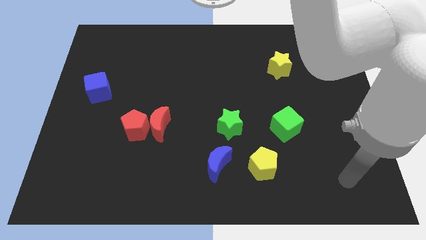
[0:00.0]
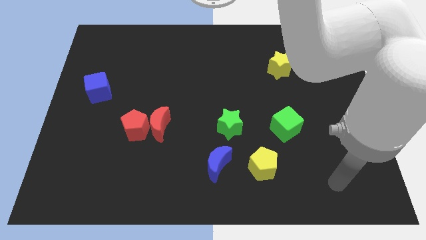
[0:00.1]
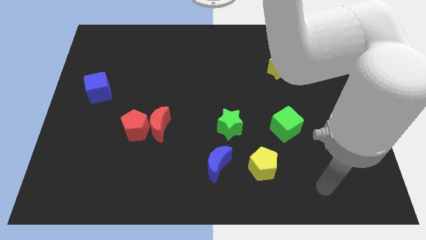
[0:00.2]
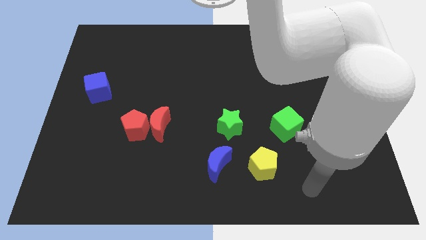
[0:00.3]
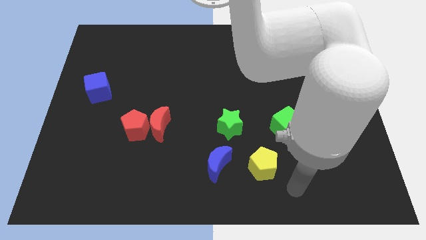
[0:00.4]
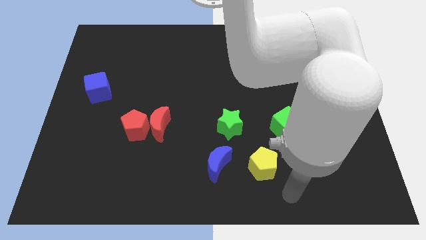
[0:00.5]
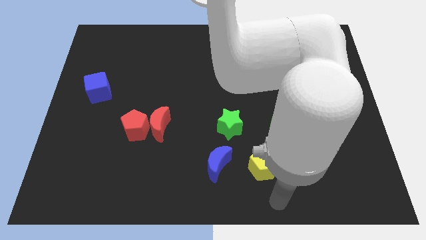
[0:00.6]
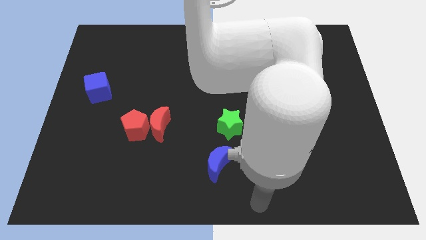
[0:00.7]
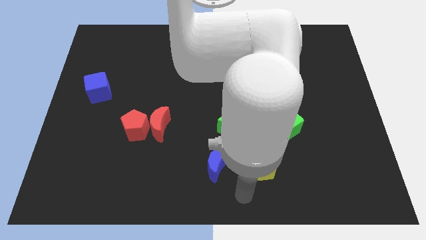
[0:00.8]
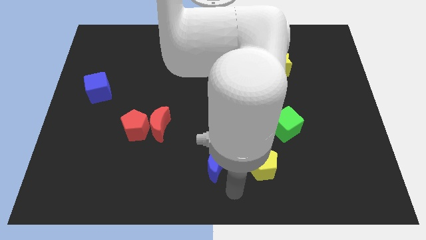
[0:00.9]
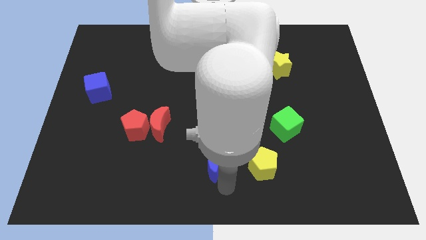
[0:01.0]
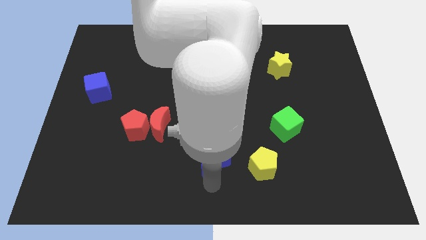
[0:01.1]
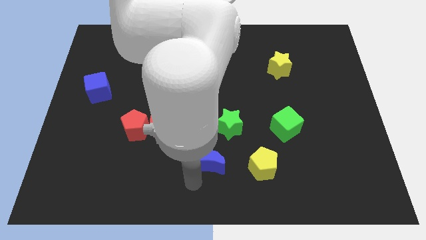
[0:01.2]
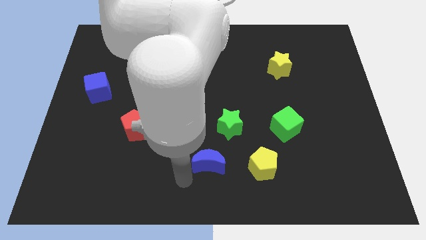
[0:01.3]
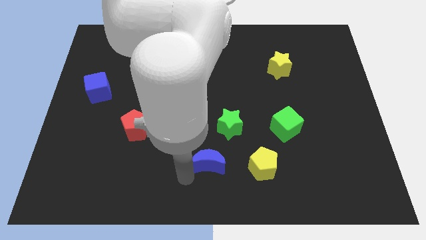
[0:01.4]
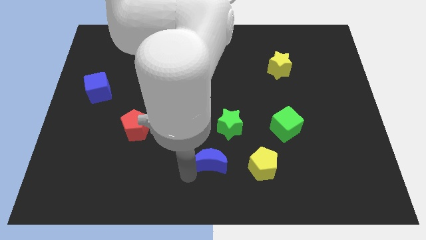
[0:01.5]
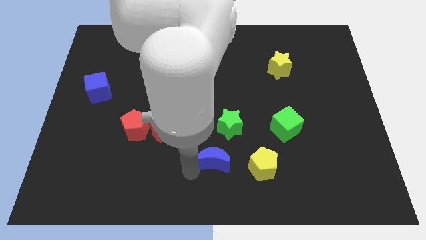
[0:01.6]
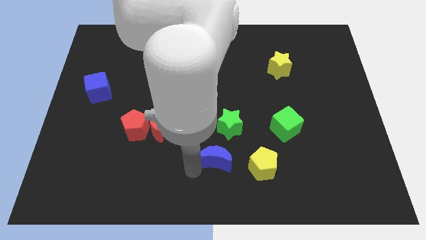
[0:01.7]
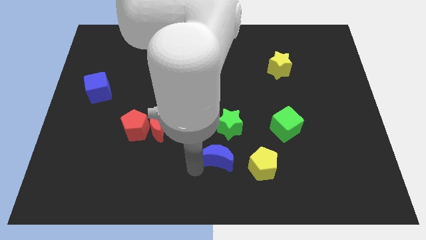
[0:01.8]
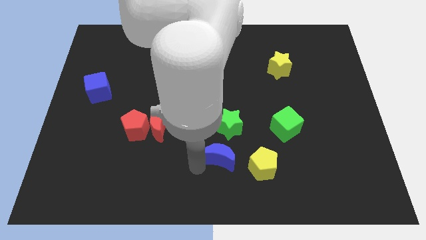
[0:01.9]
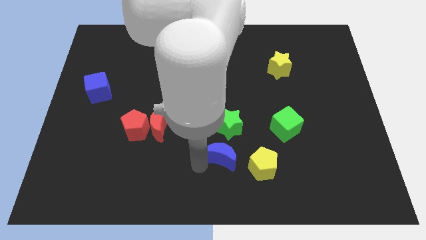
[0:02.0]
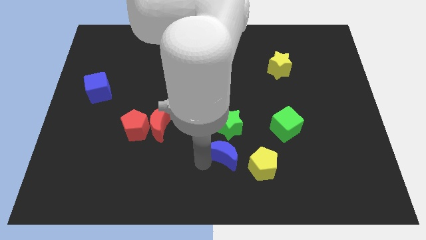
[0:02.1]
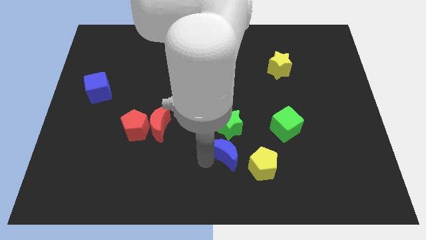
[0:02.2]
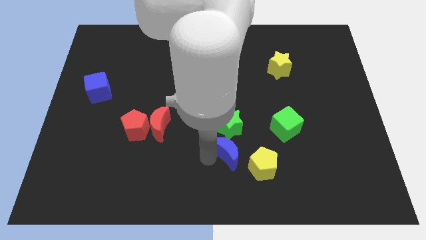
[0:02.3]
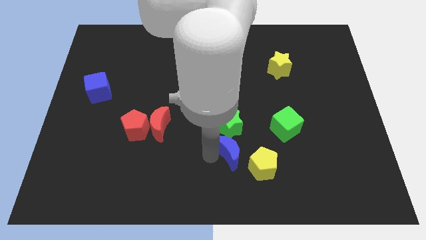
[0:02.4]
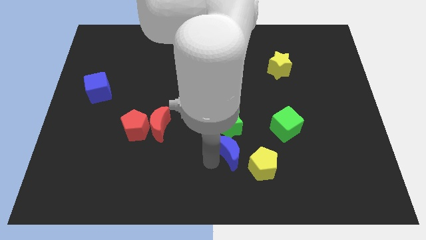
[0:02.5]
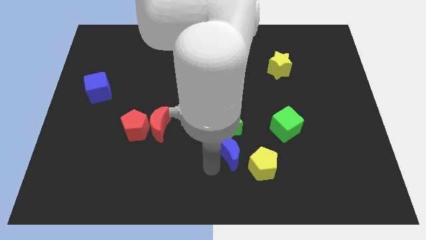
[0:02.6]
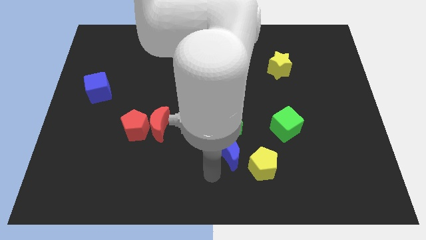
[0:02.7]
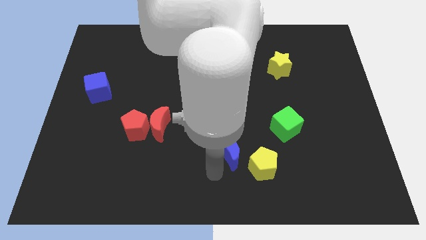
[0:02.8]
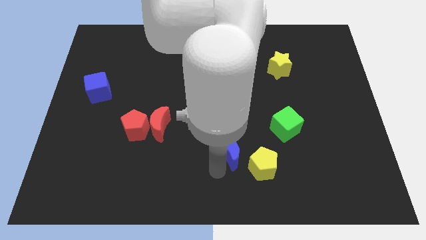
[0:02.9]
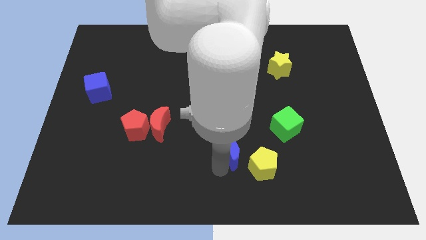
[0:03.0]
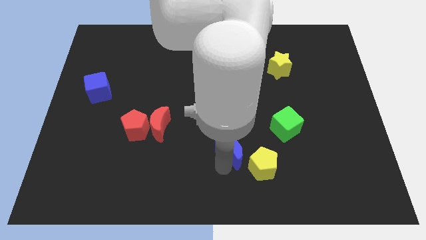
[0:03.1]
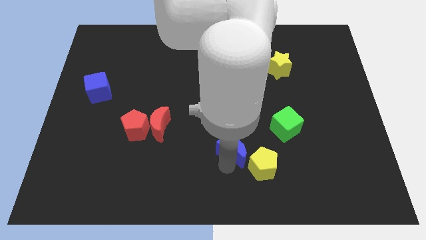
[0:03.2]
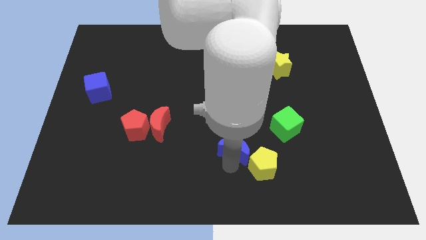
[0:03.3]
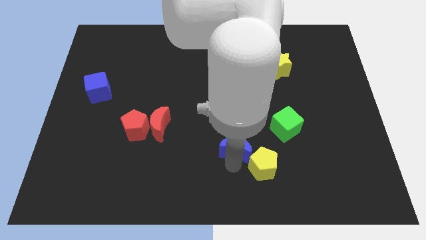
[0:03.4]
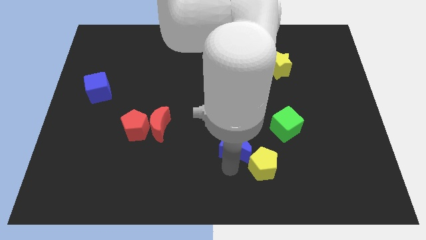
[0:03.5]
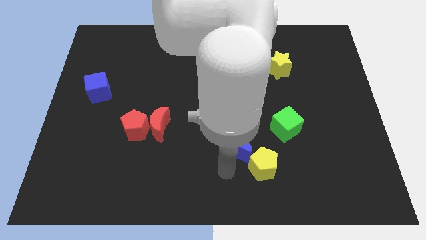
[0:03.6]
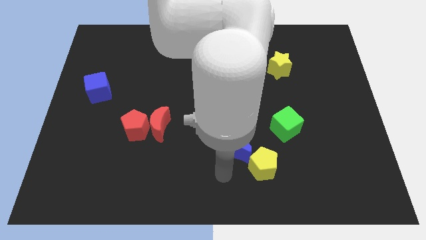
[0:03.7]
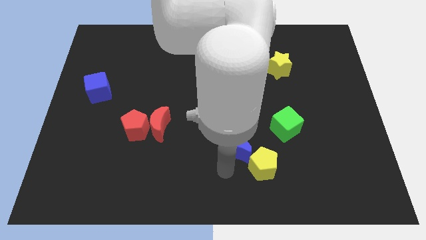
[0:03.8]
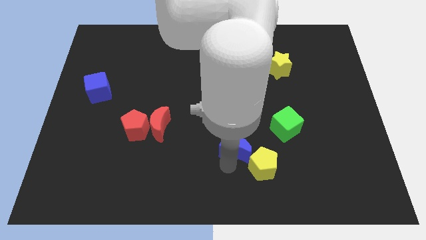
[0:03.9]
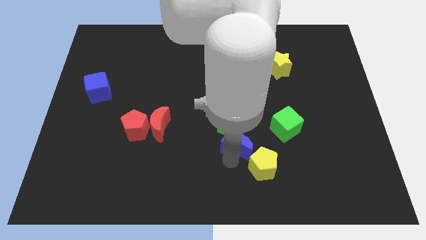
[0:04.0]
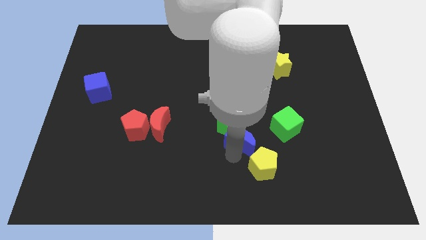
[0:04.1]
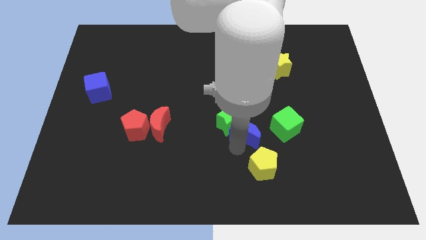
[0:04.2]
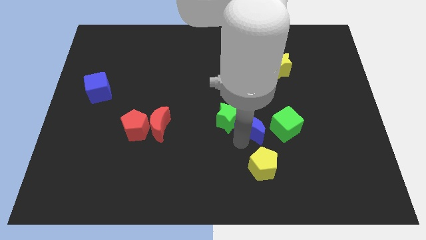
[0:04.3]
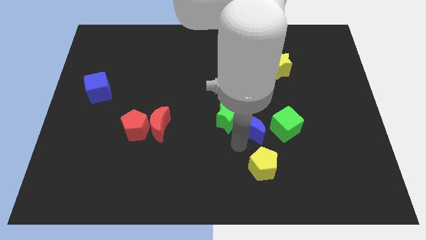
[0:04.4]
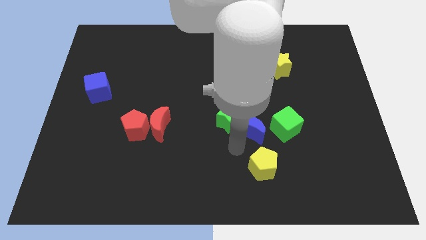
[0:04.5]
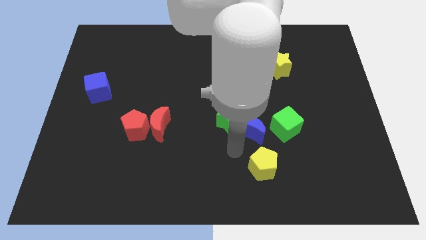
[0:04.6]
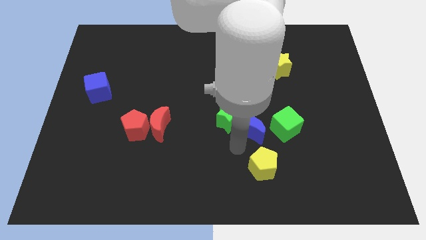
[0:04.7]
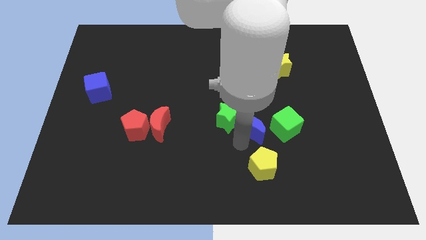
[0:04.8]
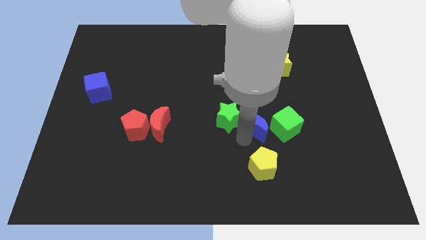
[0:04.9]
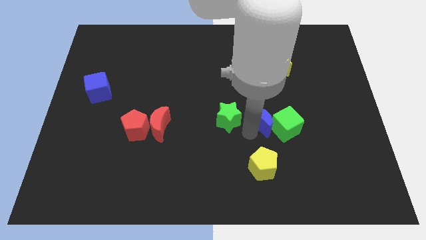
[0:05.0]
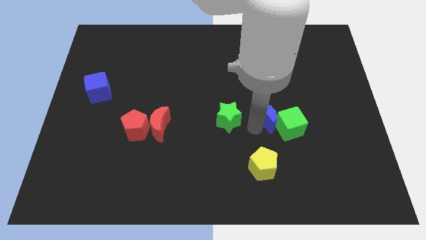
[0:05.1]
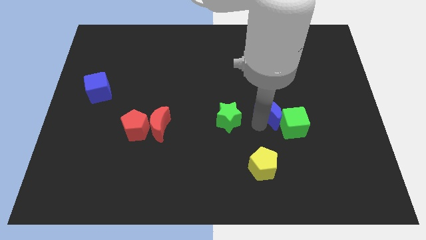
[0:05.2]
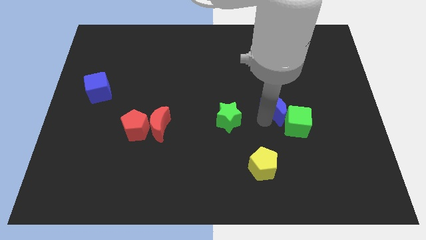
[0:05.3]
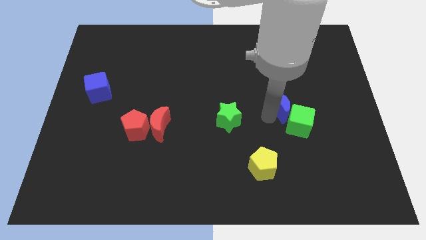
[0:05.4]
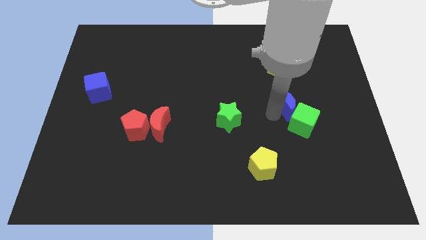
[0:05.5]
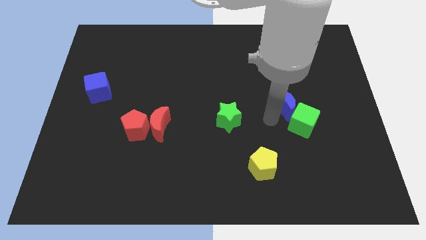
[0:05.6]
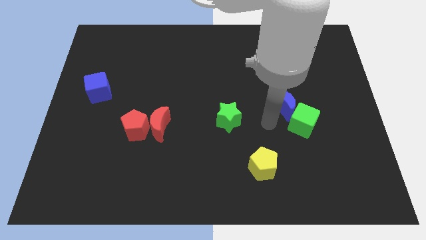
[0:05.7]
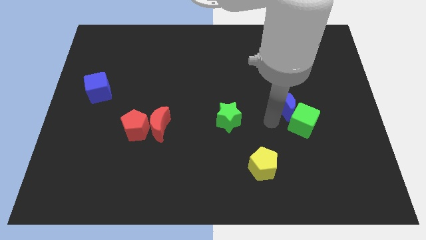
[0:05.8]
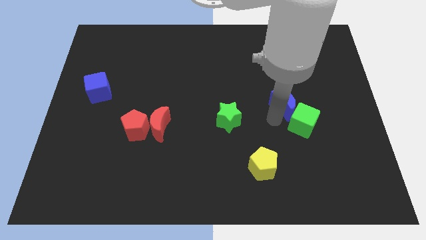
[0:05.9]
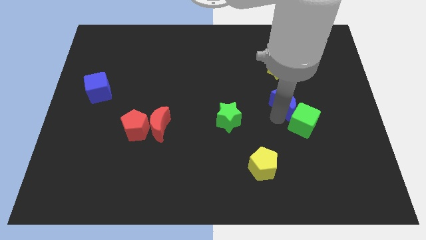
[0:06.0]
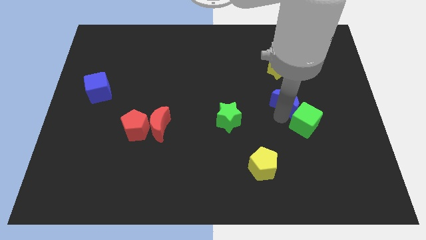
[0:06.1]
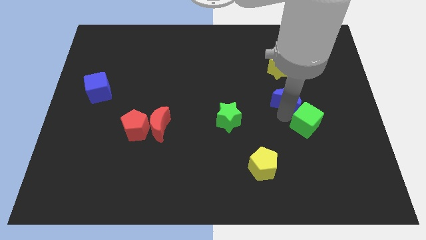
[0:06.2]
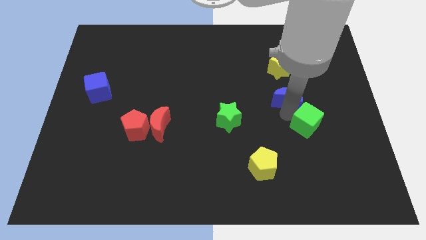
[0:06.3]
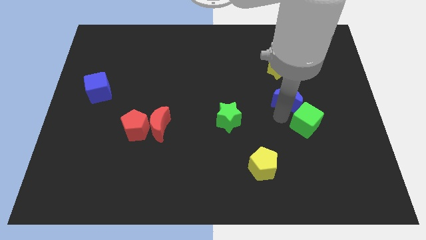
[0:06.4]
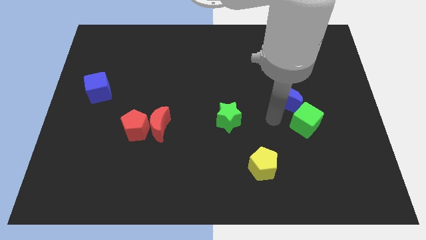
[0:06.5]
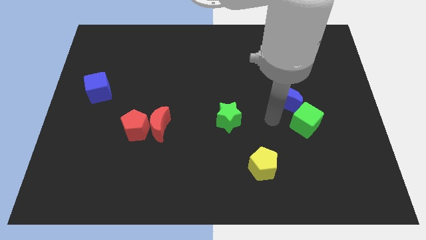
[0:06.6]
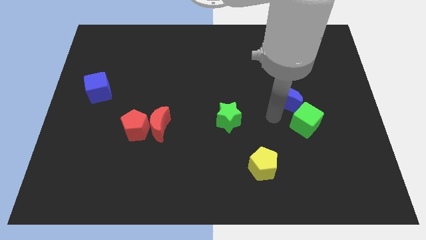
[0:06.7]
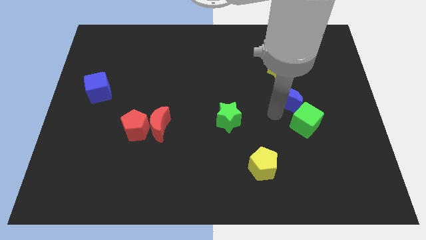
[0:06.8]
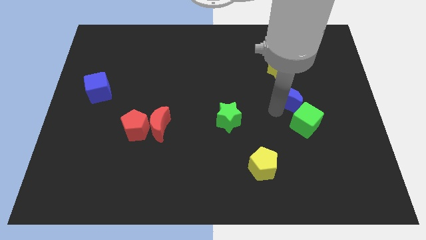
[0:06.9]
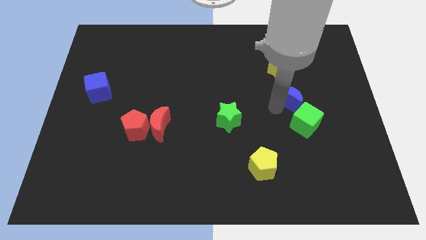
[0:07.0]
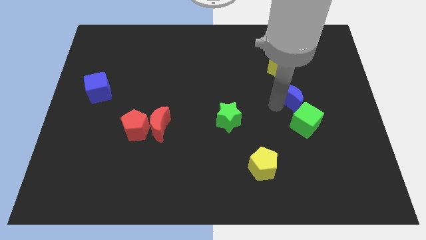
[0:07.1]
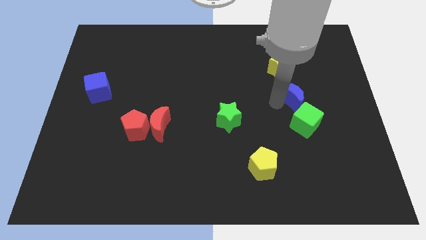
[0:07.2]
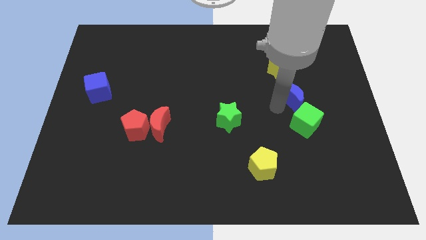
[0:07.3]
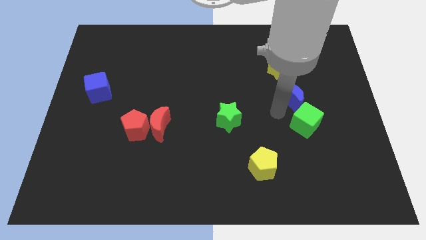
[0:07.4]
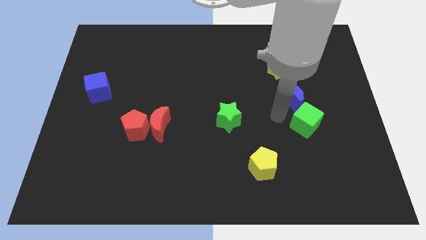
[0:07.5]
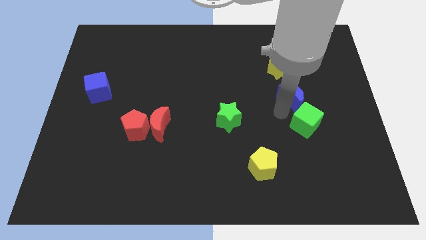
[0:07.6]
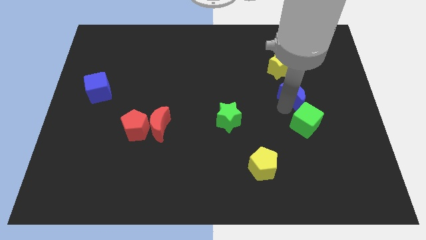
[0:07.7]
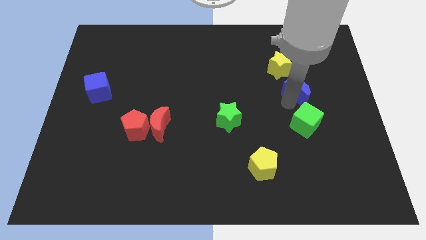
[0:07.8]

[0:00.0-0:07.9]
put the blue moon diagonally down and to the right of the yellow star
